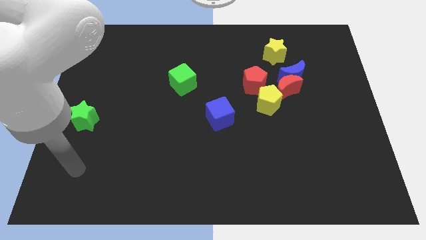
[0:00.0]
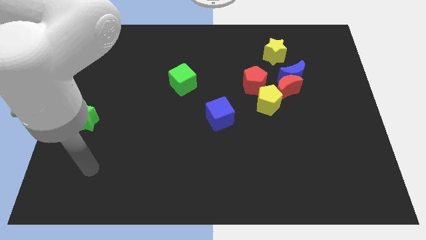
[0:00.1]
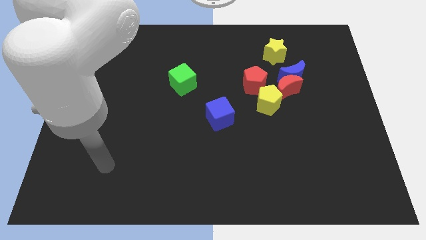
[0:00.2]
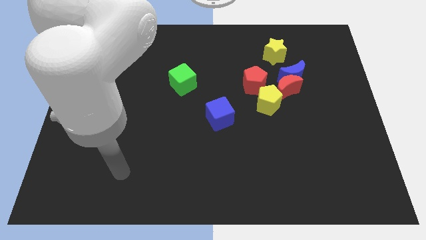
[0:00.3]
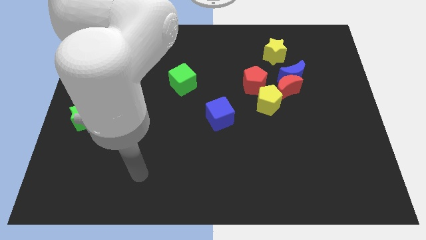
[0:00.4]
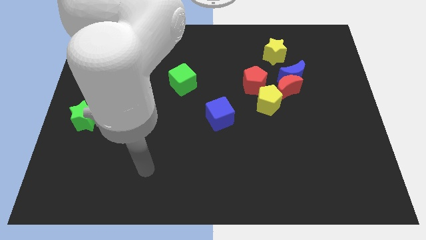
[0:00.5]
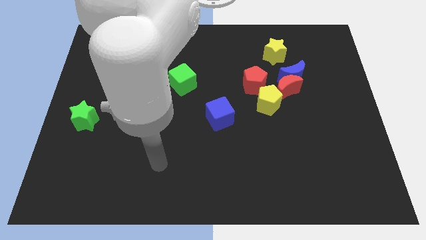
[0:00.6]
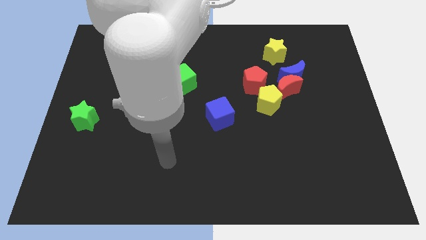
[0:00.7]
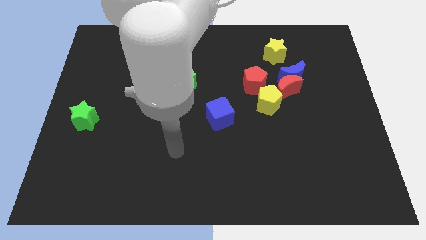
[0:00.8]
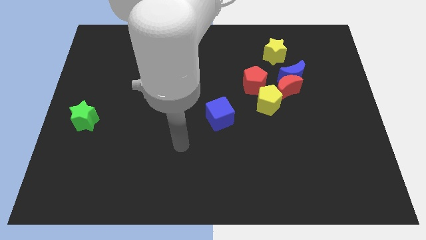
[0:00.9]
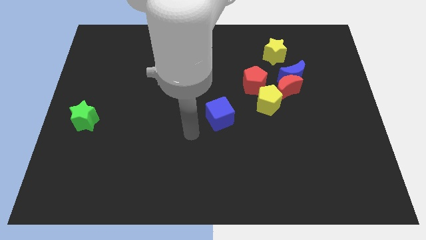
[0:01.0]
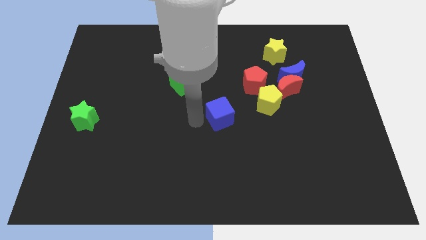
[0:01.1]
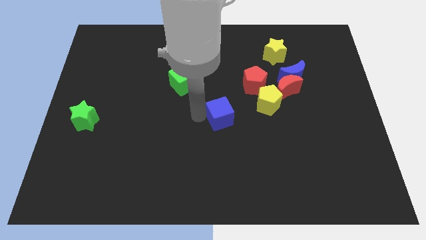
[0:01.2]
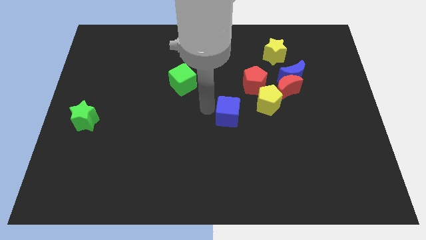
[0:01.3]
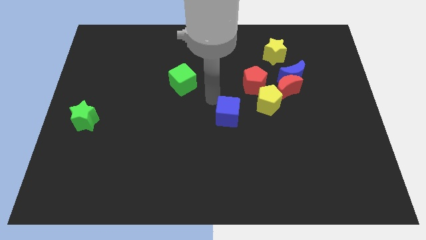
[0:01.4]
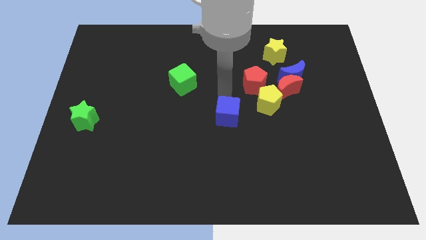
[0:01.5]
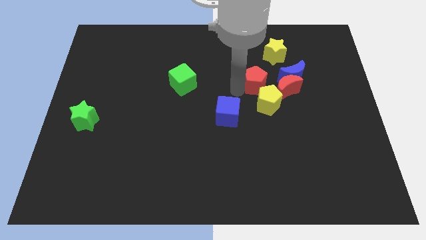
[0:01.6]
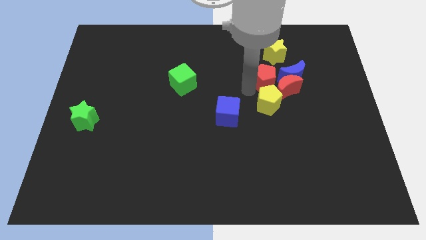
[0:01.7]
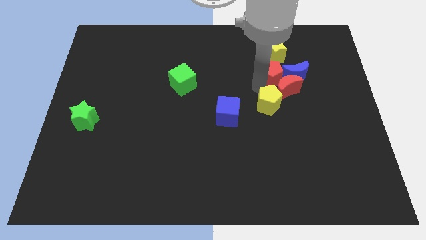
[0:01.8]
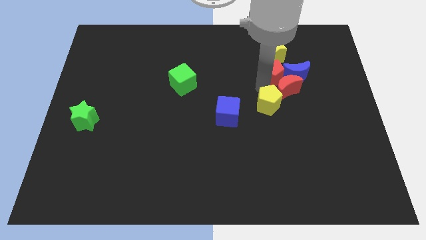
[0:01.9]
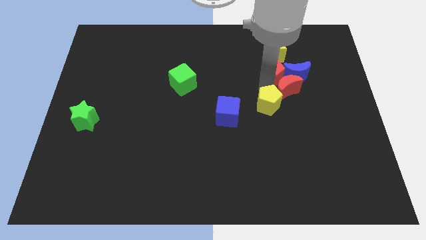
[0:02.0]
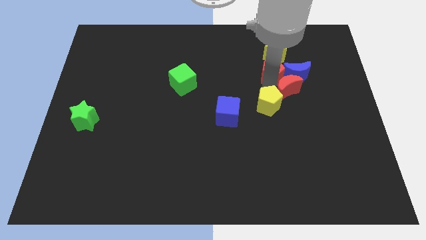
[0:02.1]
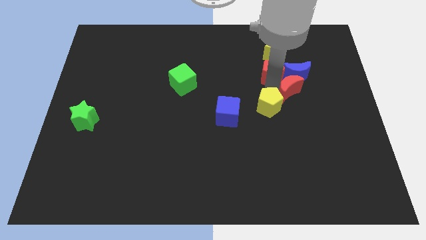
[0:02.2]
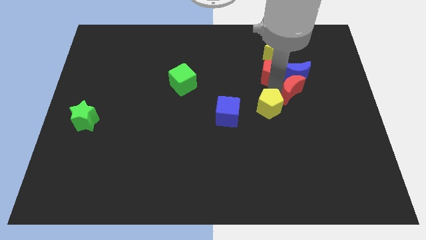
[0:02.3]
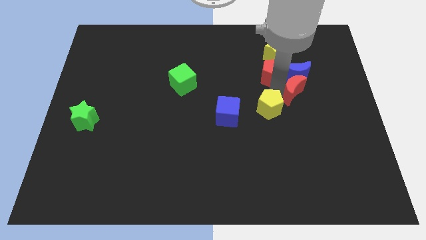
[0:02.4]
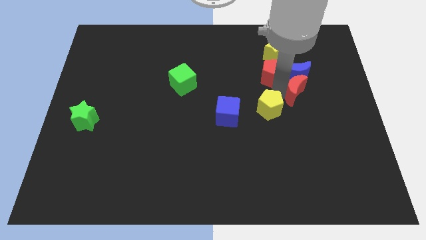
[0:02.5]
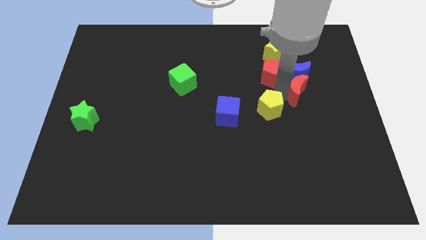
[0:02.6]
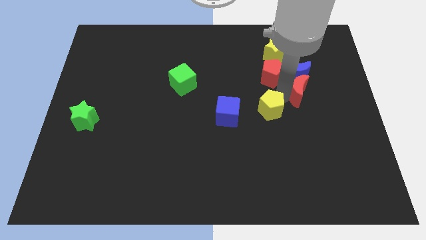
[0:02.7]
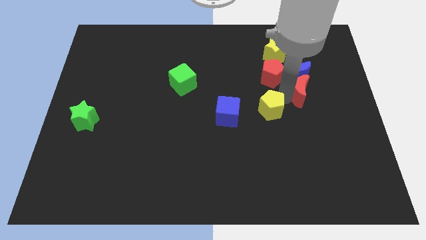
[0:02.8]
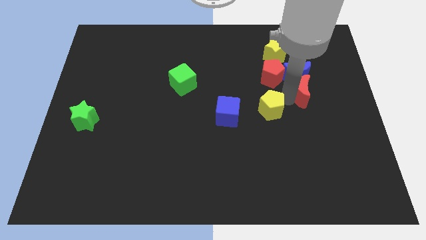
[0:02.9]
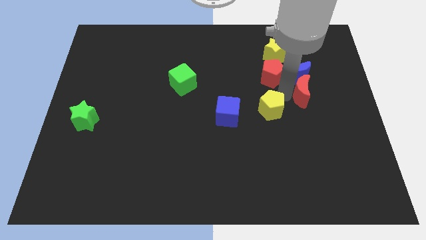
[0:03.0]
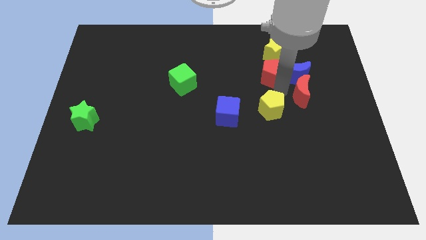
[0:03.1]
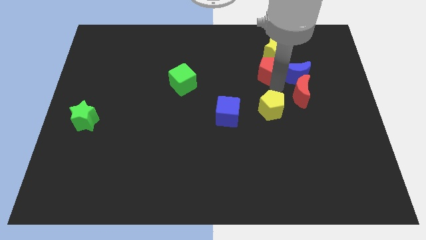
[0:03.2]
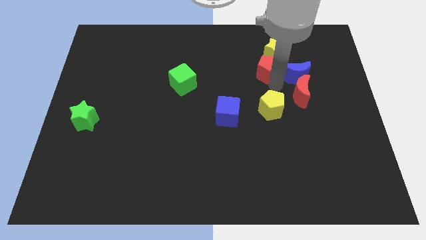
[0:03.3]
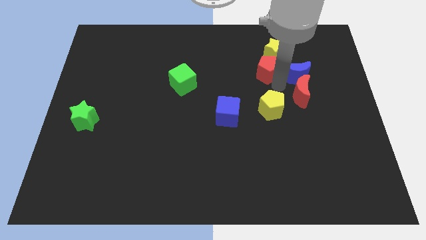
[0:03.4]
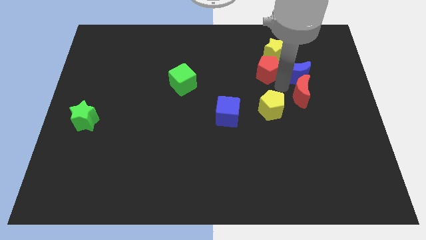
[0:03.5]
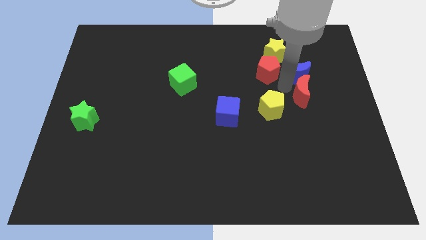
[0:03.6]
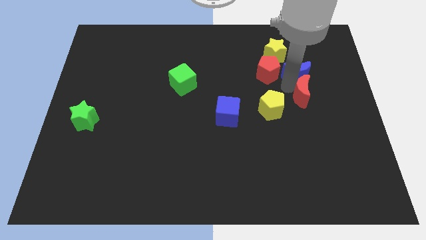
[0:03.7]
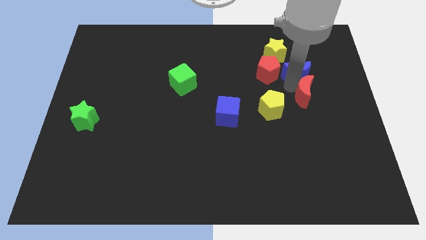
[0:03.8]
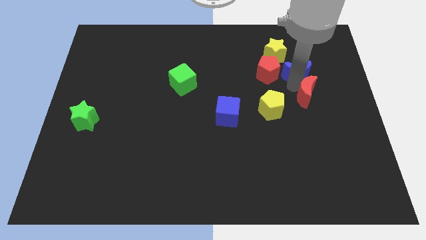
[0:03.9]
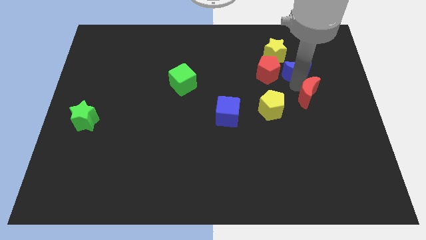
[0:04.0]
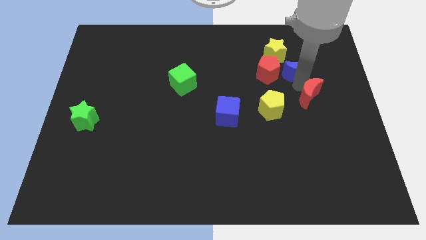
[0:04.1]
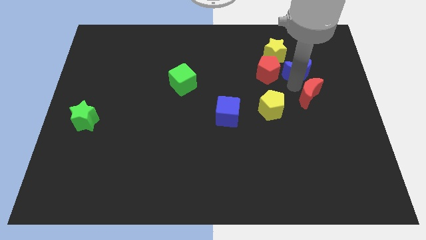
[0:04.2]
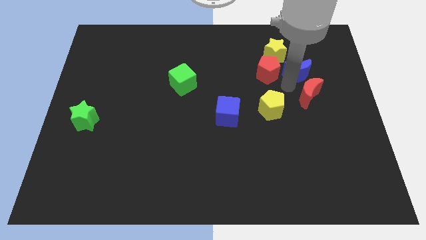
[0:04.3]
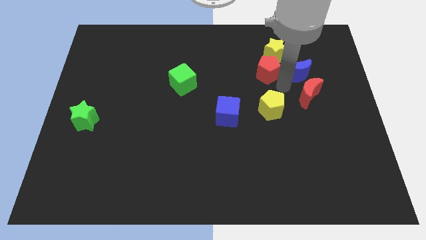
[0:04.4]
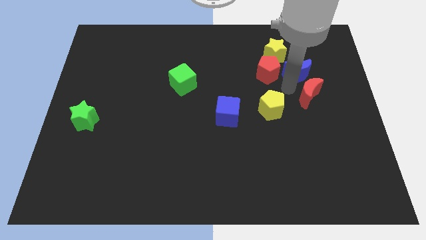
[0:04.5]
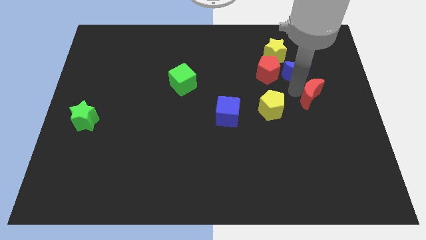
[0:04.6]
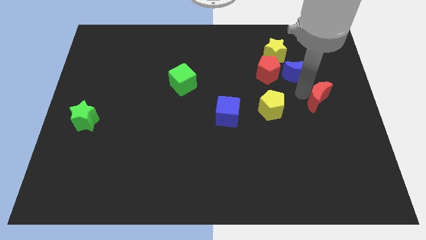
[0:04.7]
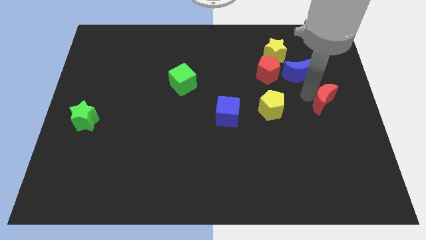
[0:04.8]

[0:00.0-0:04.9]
move the red moon away from the group

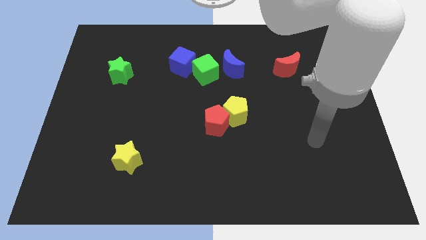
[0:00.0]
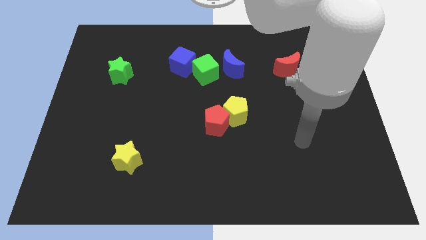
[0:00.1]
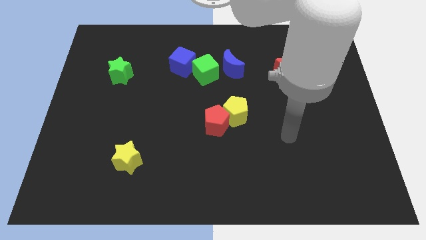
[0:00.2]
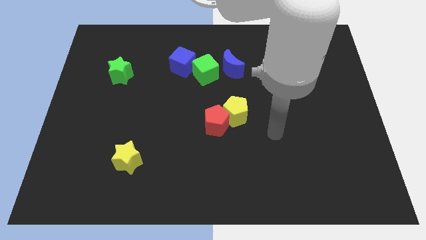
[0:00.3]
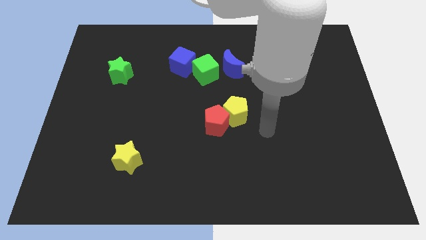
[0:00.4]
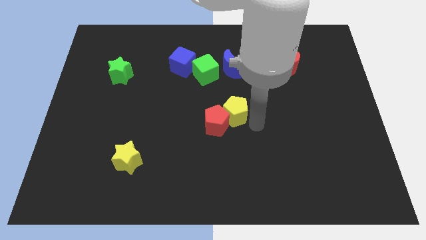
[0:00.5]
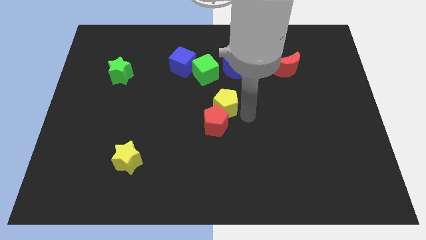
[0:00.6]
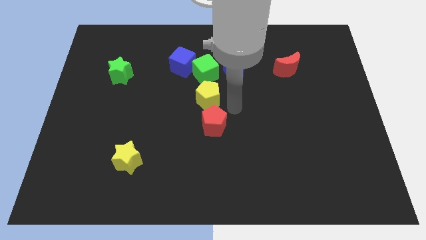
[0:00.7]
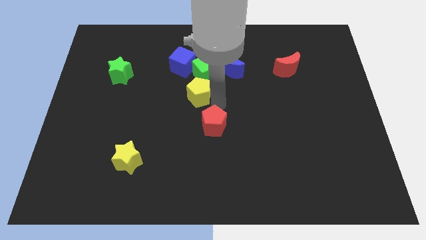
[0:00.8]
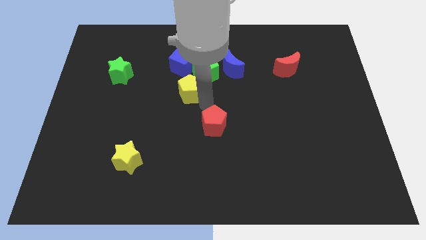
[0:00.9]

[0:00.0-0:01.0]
separate the red pentagon from the yellow pentagon

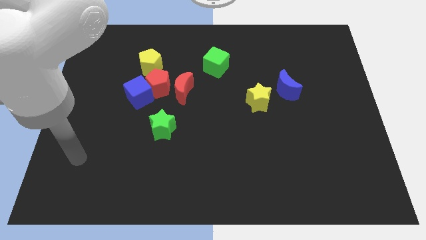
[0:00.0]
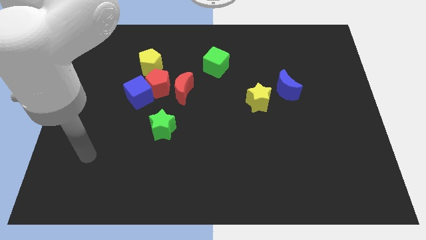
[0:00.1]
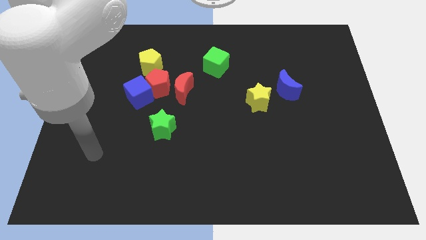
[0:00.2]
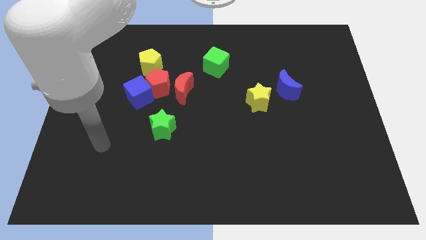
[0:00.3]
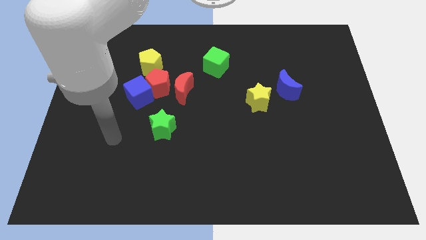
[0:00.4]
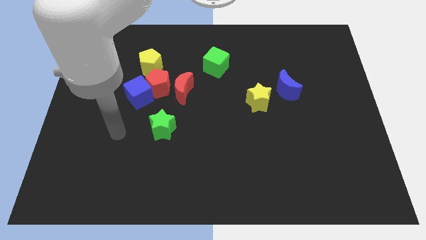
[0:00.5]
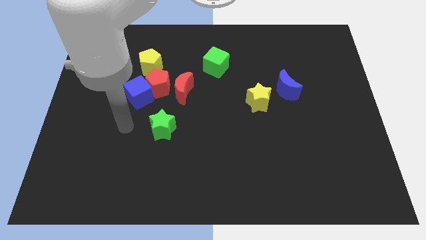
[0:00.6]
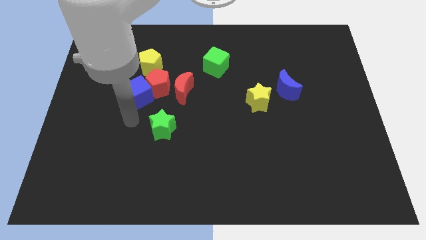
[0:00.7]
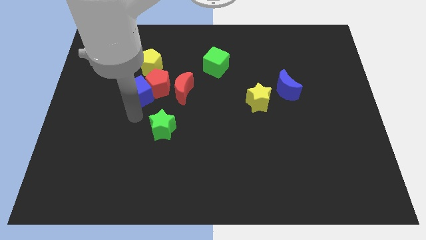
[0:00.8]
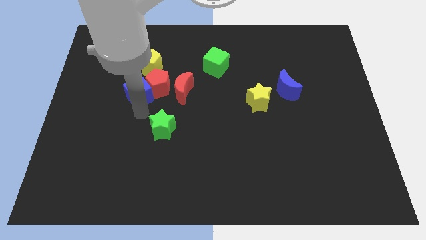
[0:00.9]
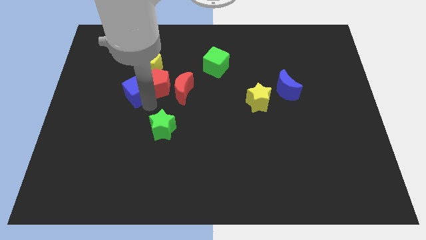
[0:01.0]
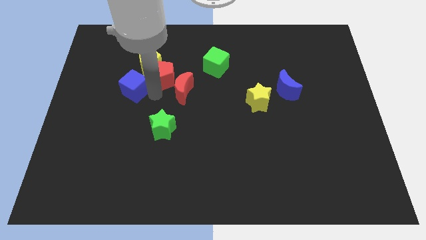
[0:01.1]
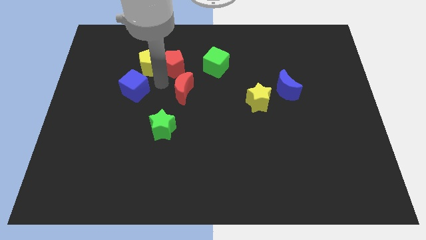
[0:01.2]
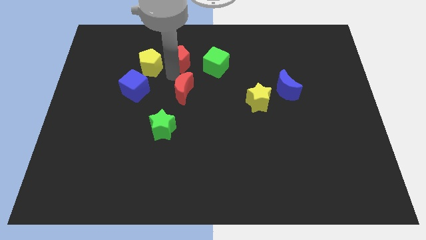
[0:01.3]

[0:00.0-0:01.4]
move the red moon away from the red pentagon

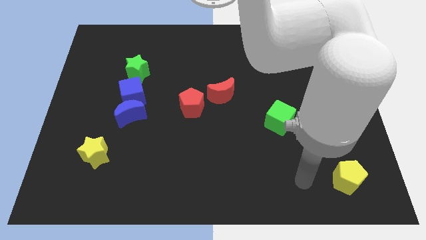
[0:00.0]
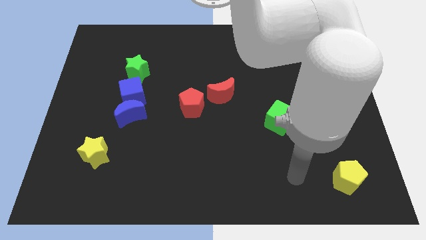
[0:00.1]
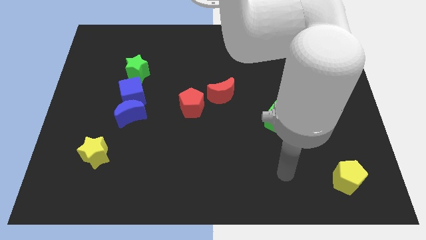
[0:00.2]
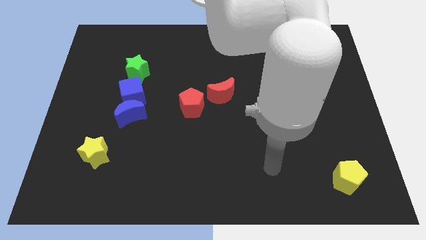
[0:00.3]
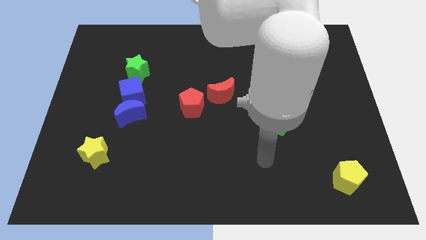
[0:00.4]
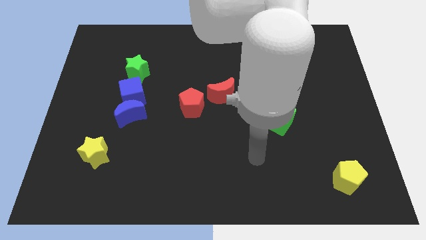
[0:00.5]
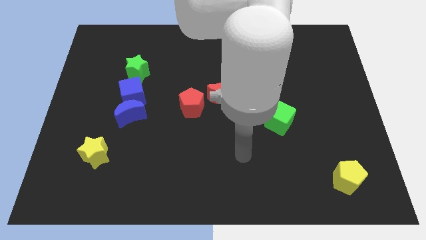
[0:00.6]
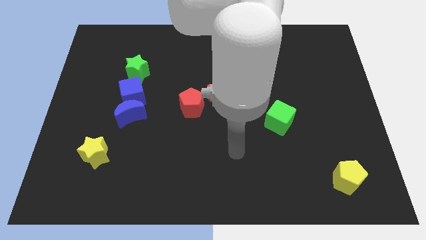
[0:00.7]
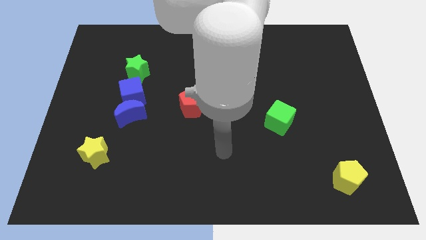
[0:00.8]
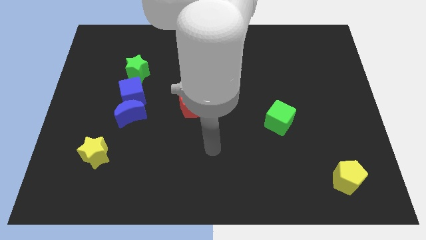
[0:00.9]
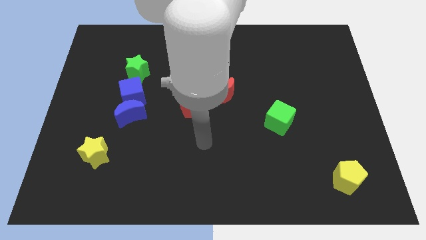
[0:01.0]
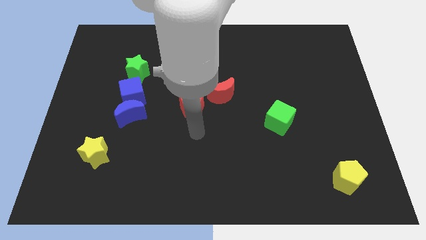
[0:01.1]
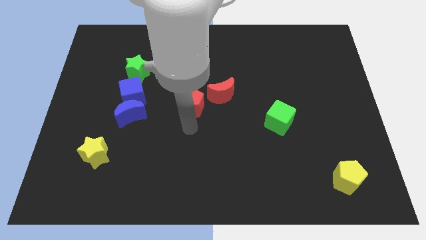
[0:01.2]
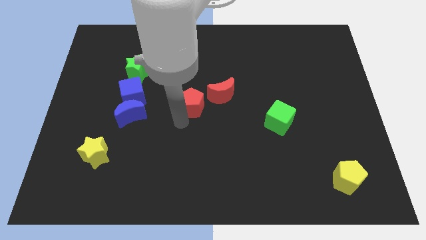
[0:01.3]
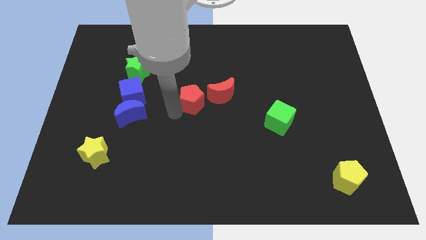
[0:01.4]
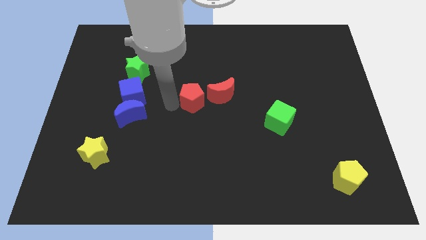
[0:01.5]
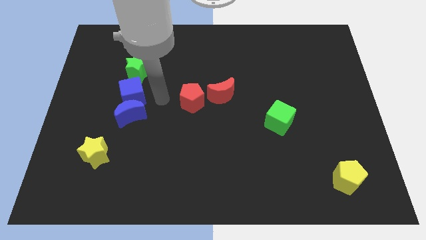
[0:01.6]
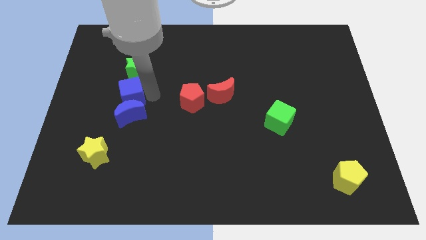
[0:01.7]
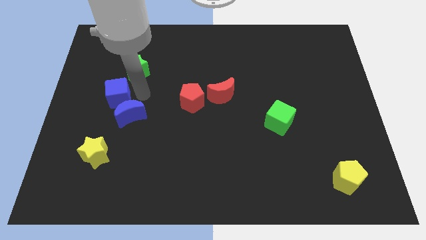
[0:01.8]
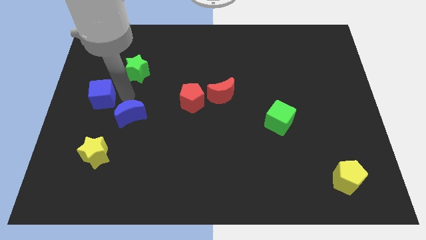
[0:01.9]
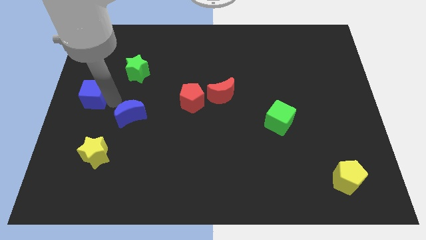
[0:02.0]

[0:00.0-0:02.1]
separate the blue moon from the blue cube
